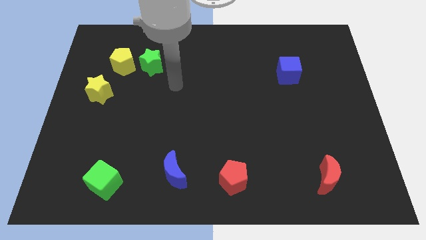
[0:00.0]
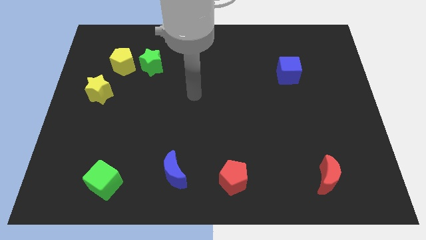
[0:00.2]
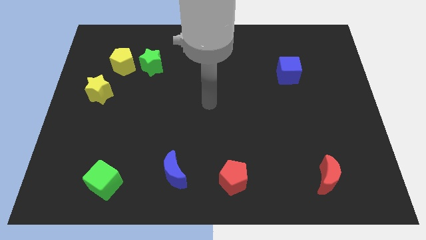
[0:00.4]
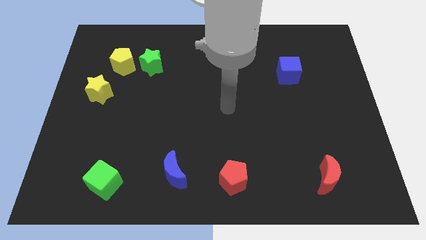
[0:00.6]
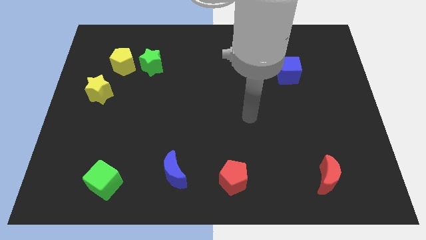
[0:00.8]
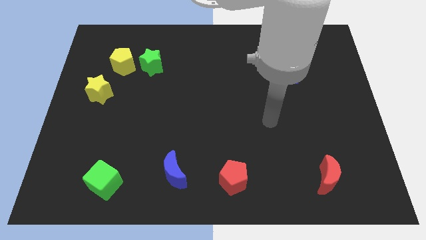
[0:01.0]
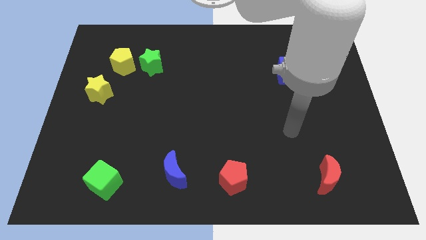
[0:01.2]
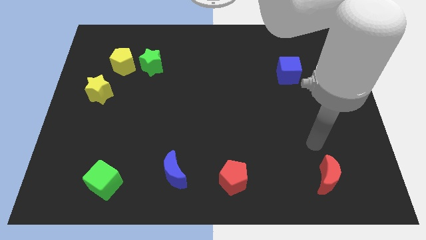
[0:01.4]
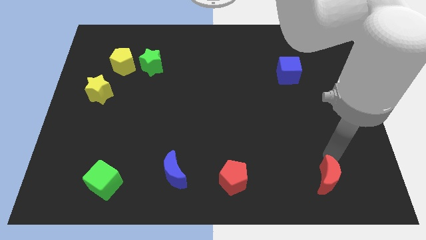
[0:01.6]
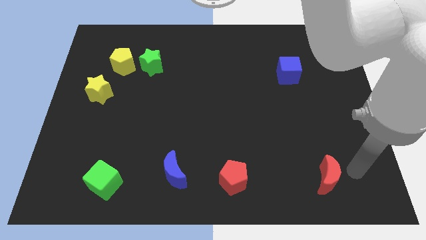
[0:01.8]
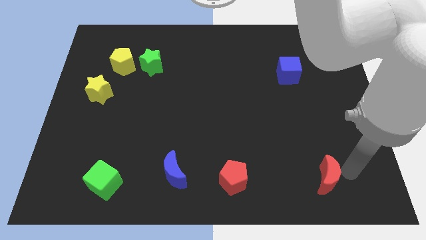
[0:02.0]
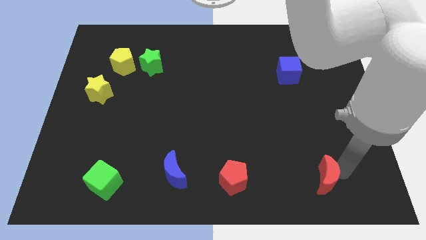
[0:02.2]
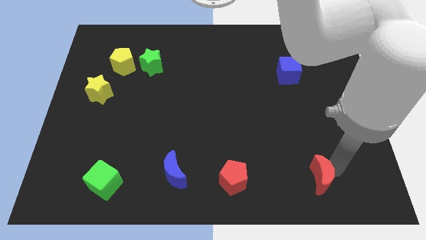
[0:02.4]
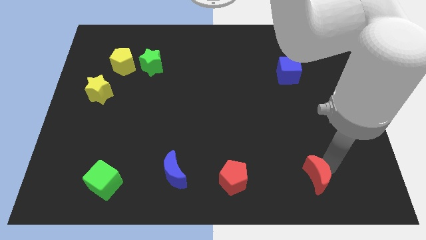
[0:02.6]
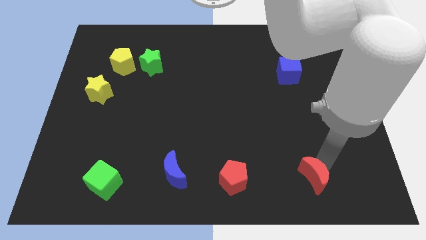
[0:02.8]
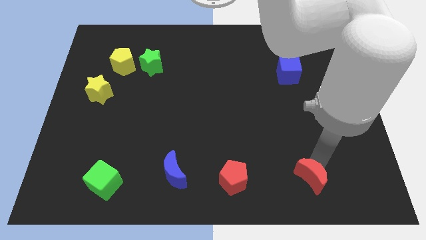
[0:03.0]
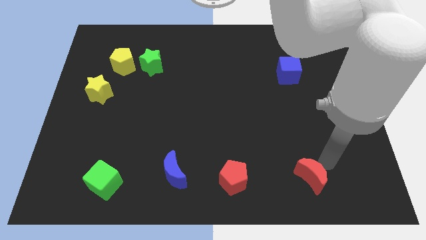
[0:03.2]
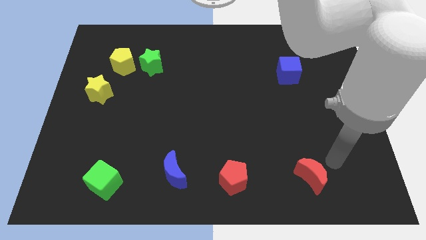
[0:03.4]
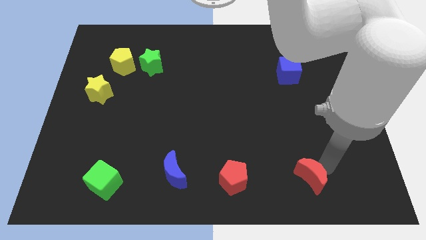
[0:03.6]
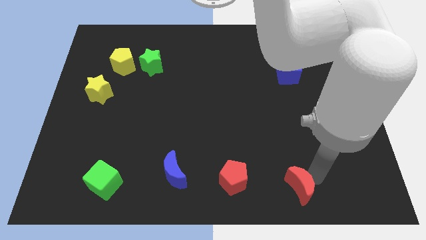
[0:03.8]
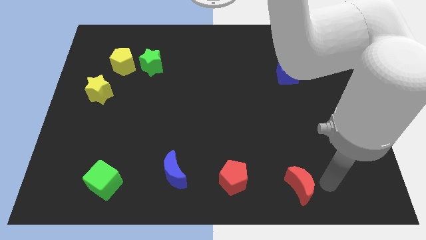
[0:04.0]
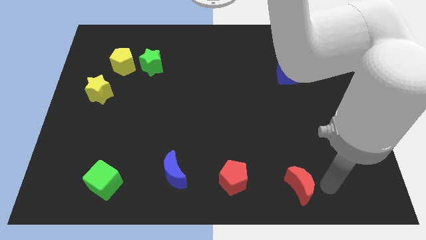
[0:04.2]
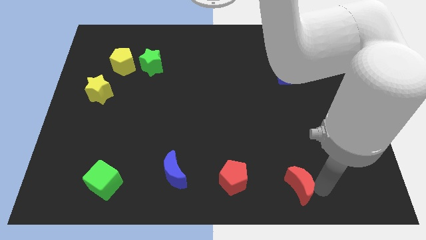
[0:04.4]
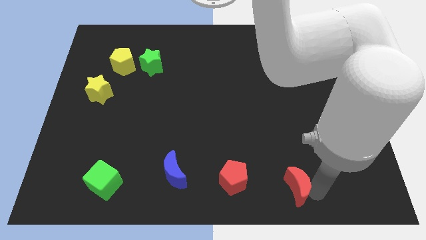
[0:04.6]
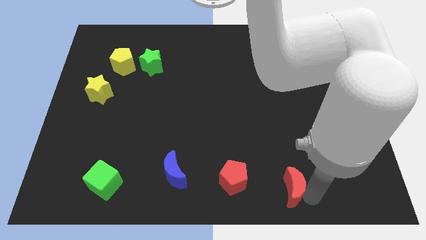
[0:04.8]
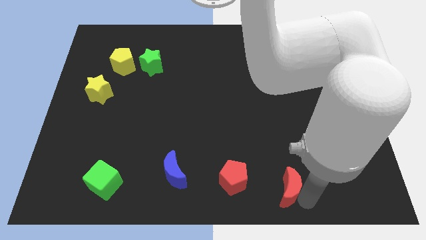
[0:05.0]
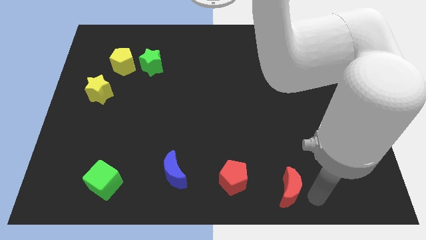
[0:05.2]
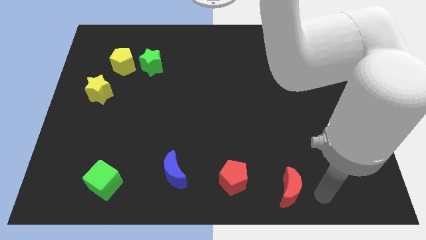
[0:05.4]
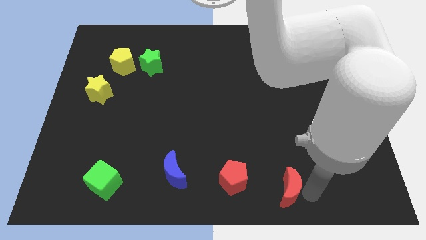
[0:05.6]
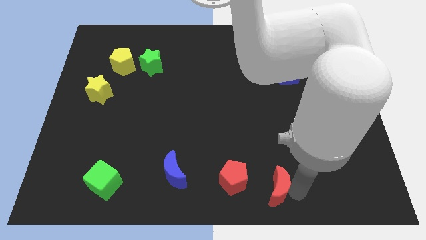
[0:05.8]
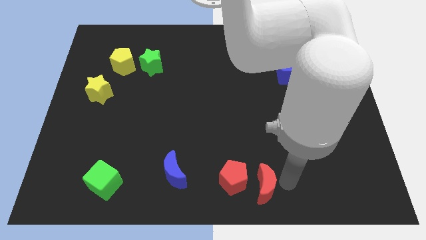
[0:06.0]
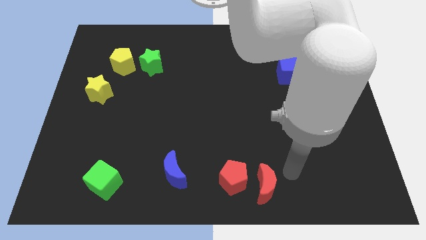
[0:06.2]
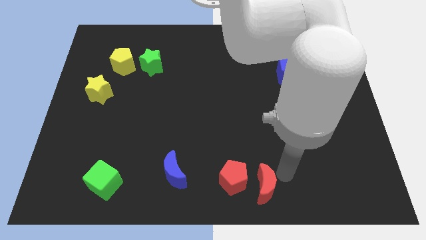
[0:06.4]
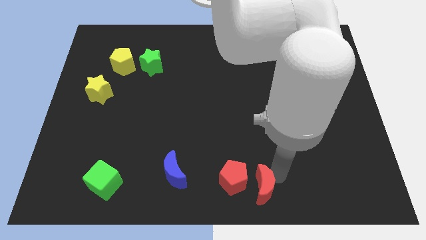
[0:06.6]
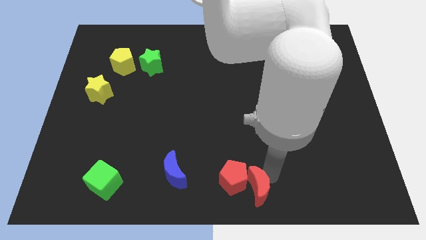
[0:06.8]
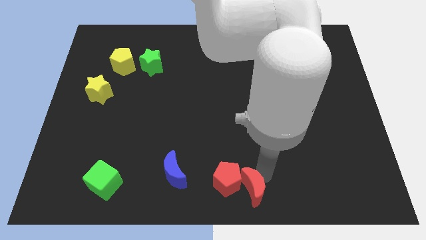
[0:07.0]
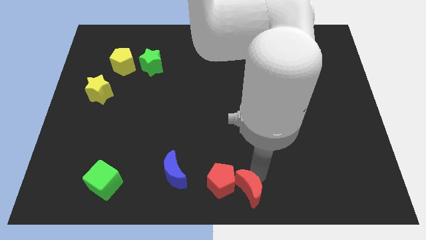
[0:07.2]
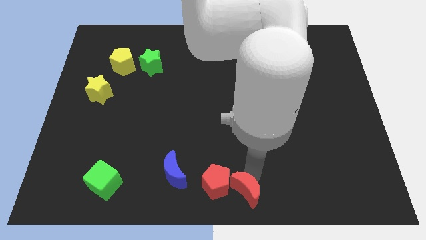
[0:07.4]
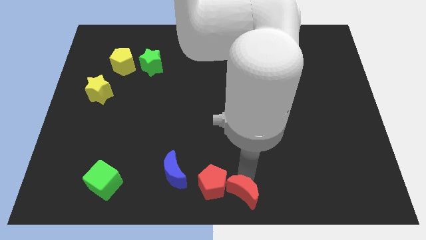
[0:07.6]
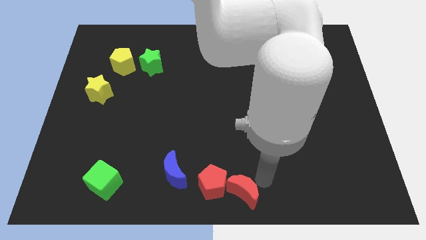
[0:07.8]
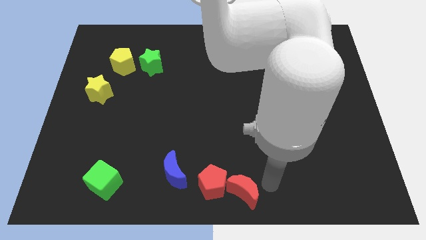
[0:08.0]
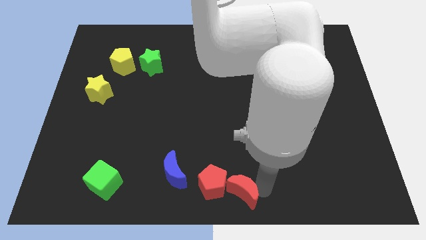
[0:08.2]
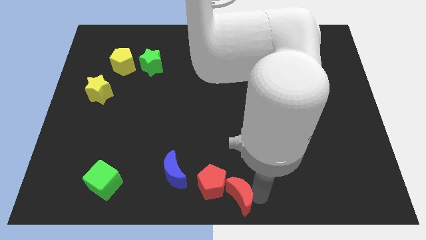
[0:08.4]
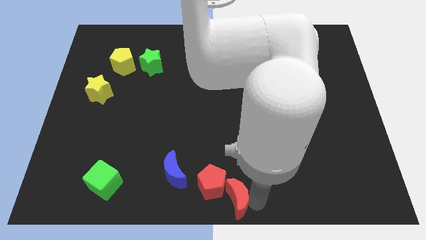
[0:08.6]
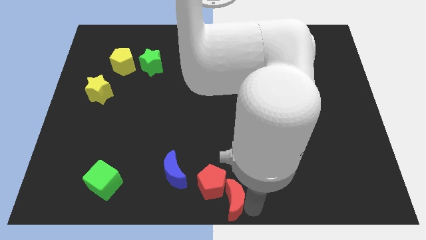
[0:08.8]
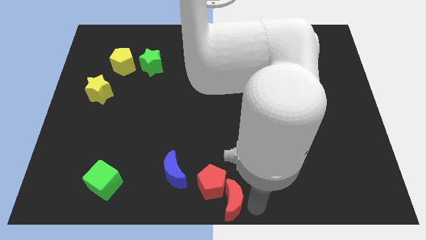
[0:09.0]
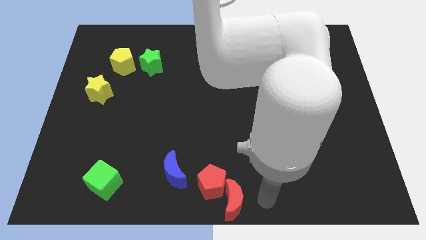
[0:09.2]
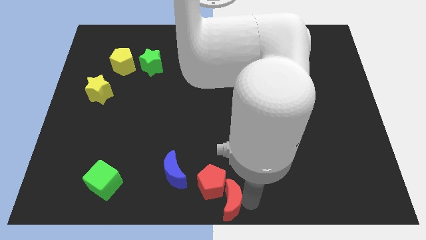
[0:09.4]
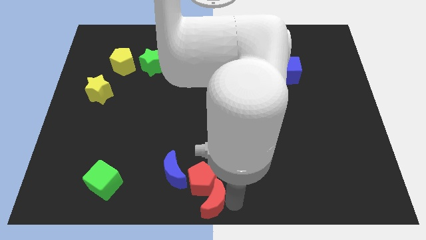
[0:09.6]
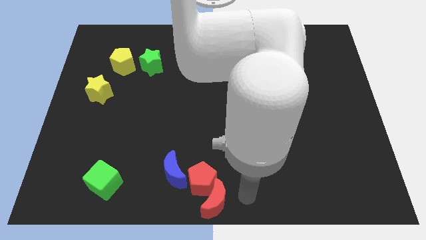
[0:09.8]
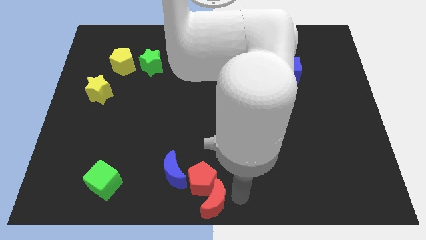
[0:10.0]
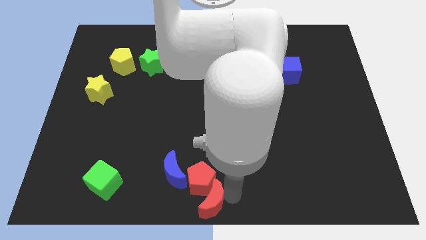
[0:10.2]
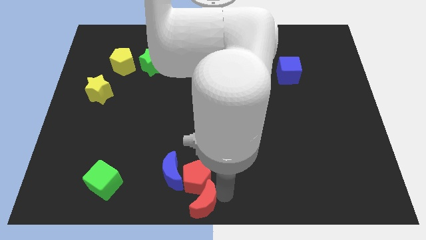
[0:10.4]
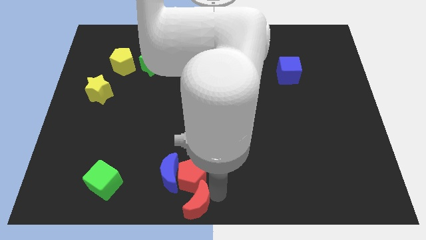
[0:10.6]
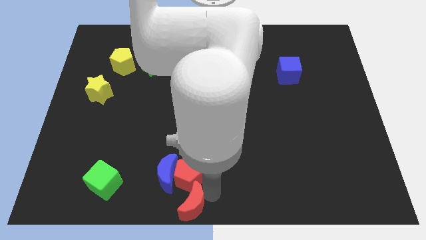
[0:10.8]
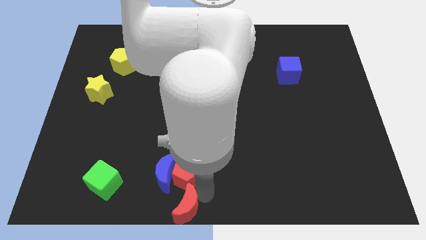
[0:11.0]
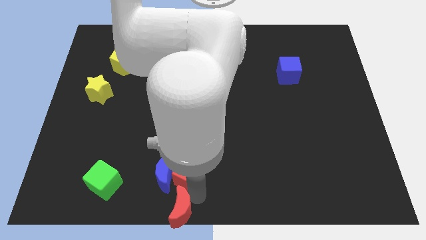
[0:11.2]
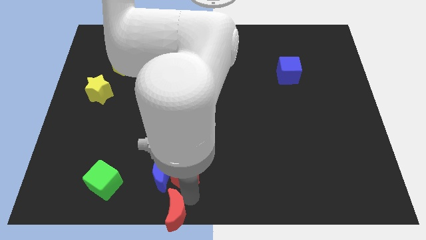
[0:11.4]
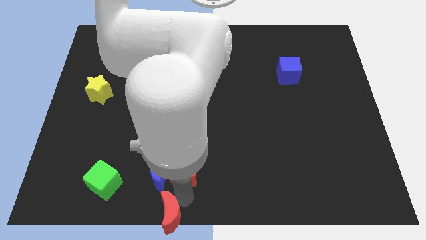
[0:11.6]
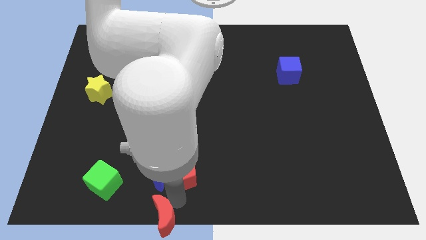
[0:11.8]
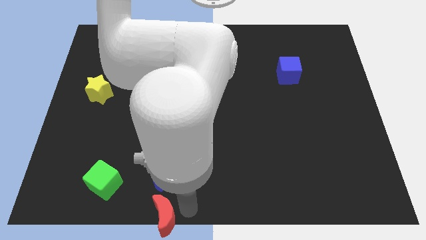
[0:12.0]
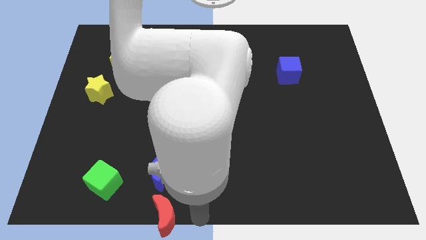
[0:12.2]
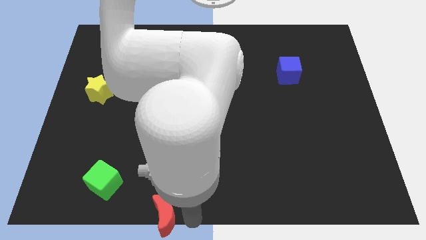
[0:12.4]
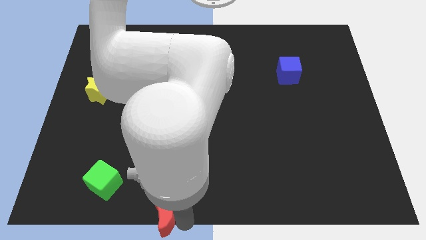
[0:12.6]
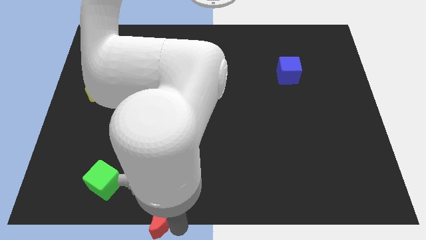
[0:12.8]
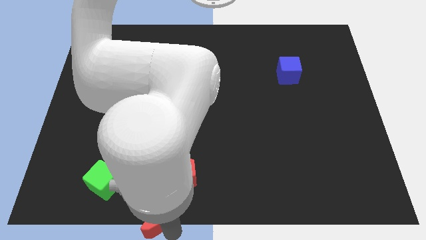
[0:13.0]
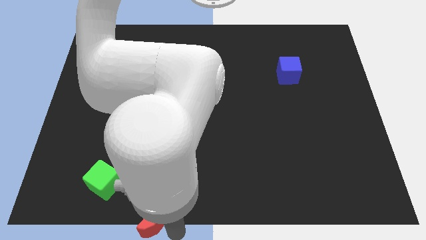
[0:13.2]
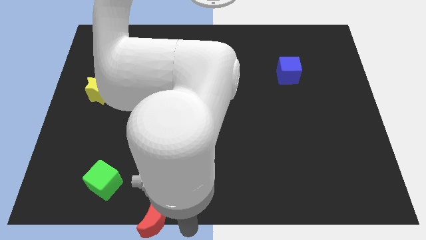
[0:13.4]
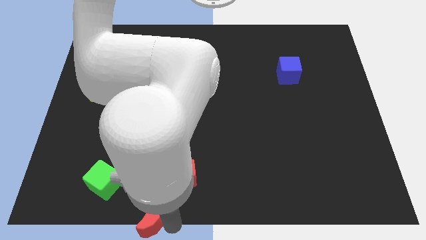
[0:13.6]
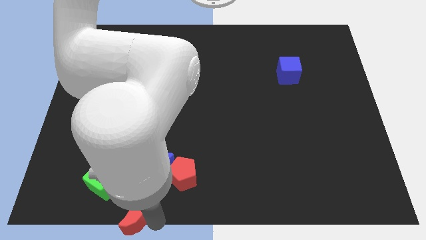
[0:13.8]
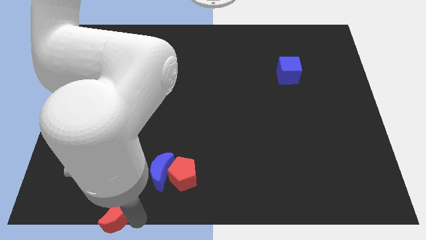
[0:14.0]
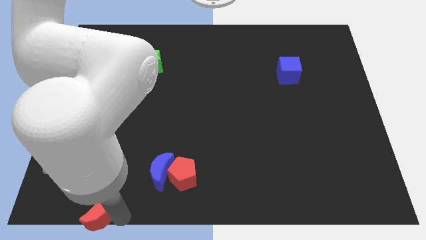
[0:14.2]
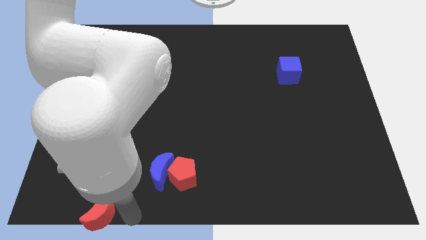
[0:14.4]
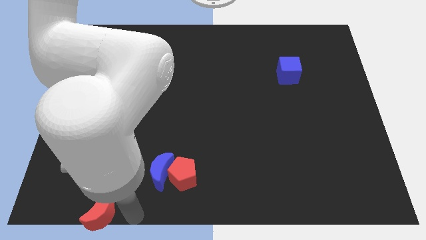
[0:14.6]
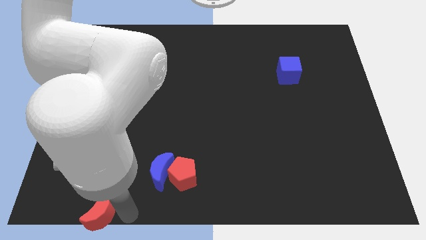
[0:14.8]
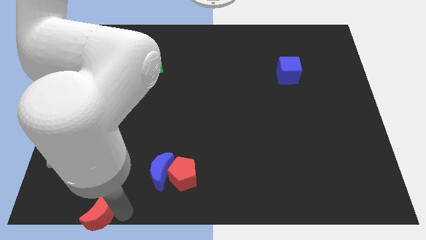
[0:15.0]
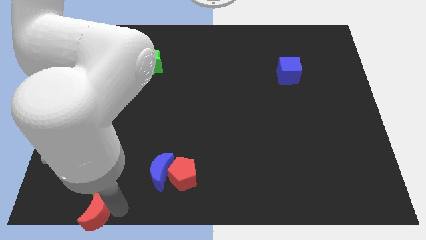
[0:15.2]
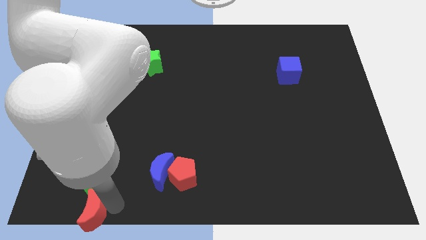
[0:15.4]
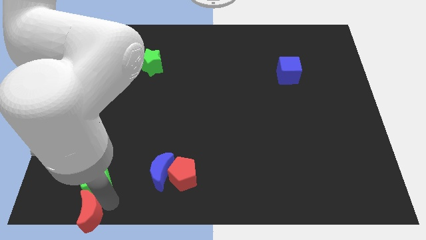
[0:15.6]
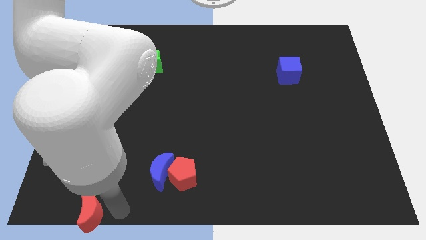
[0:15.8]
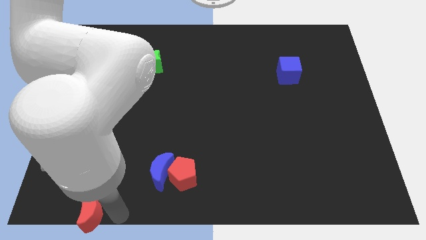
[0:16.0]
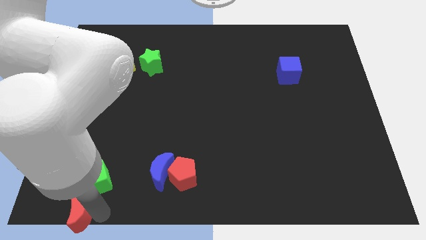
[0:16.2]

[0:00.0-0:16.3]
move the red moon to the bottom left
